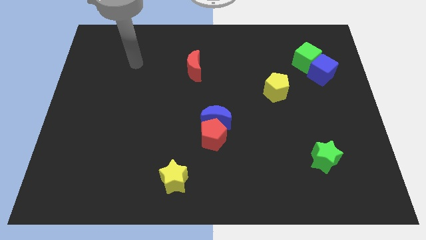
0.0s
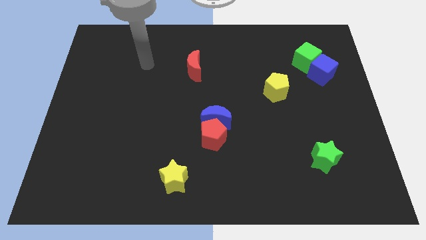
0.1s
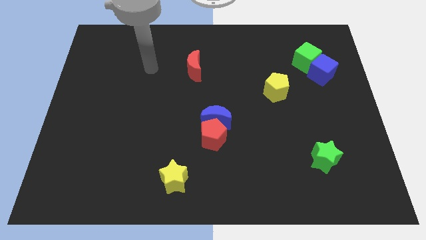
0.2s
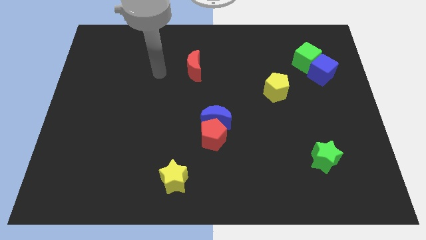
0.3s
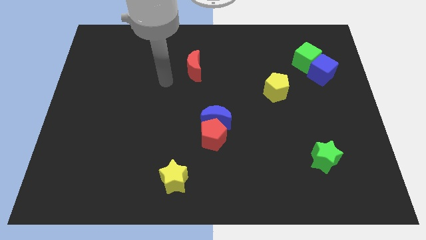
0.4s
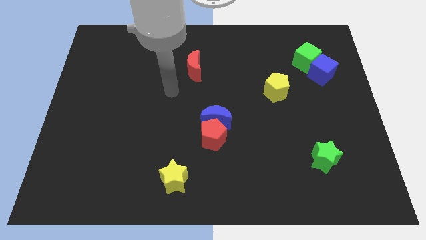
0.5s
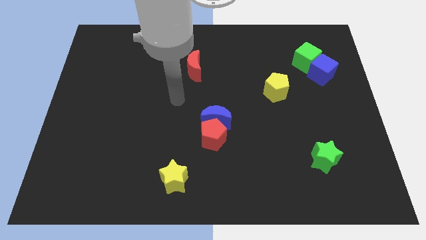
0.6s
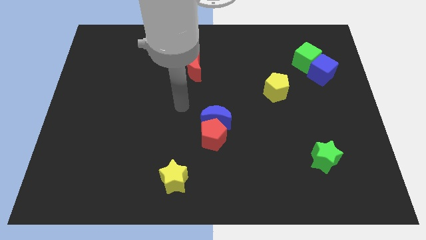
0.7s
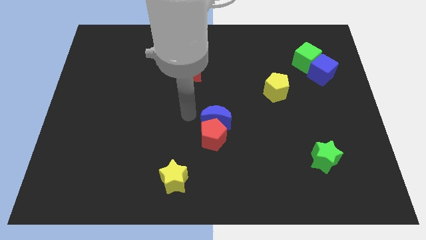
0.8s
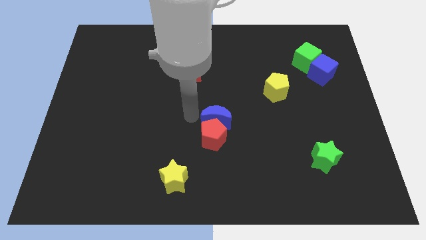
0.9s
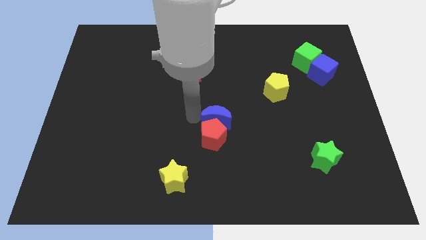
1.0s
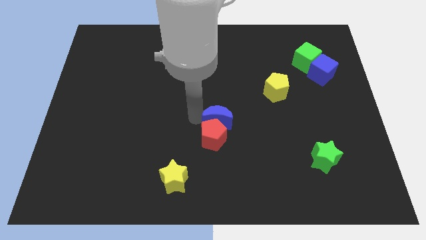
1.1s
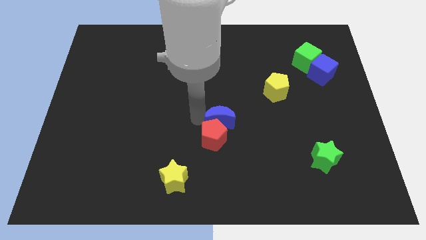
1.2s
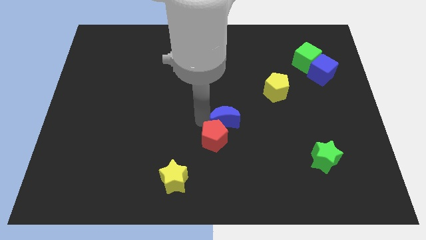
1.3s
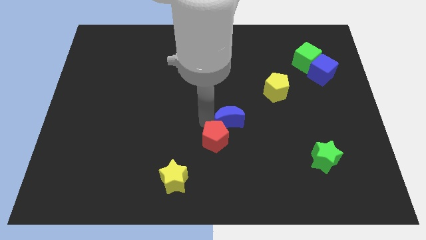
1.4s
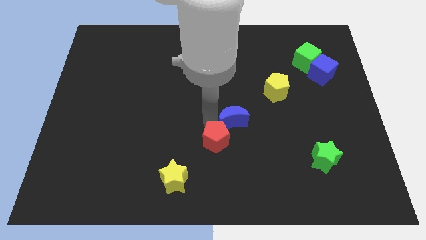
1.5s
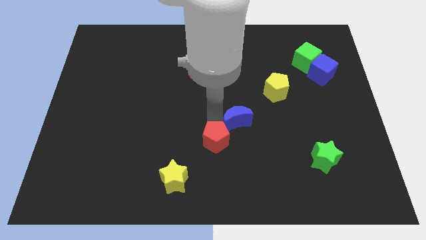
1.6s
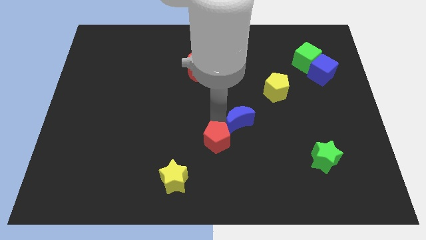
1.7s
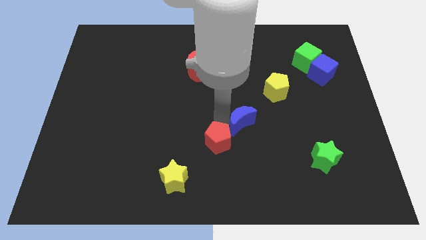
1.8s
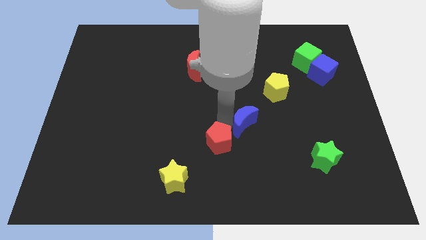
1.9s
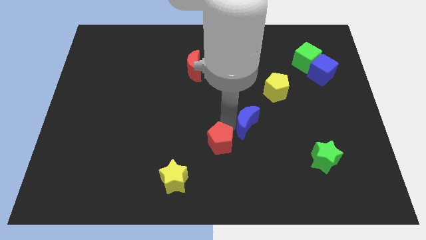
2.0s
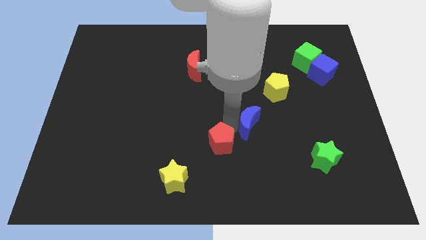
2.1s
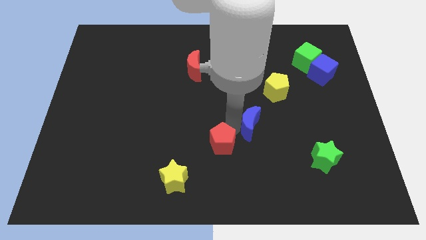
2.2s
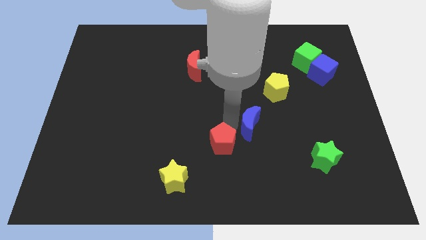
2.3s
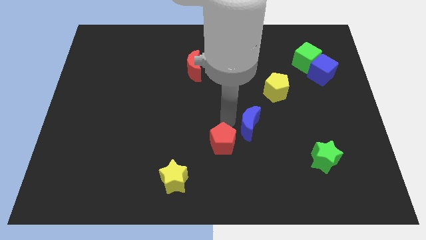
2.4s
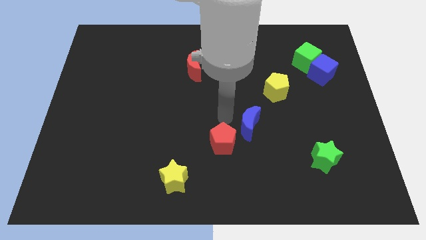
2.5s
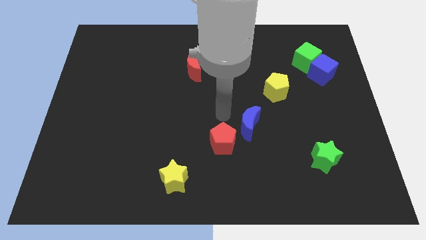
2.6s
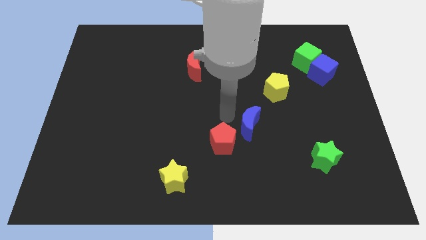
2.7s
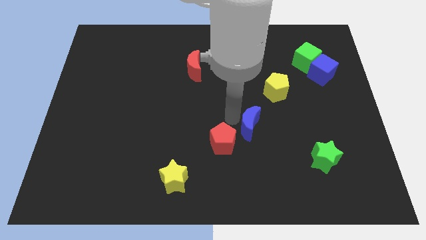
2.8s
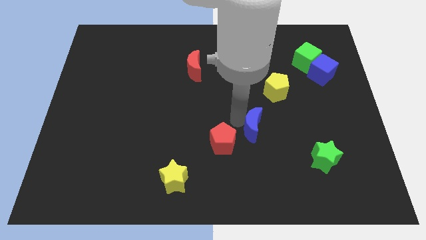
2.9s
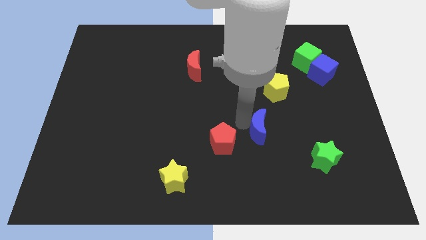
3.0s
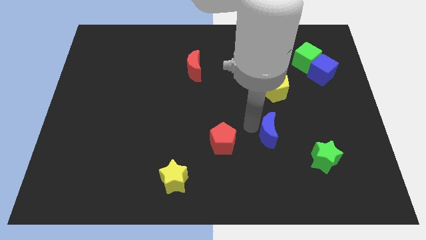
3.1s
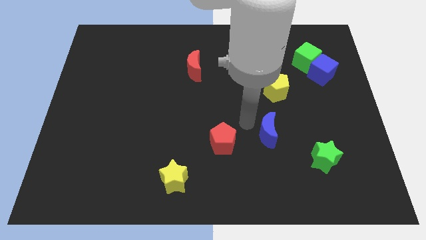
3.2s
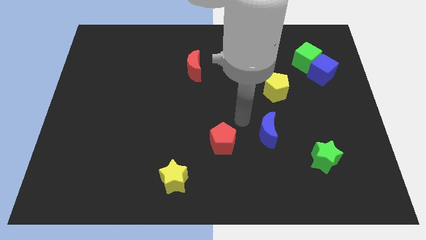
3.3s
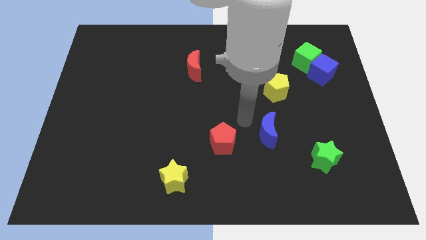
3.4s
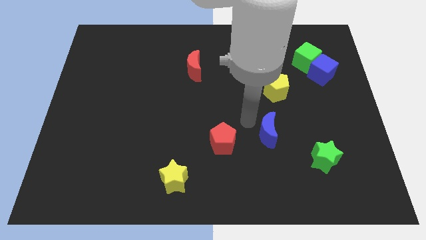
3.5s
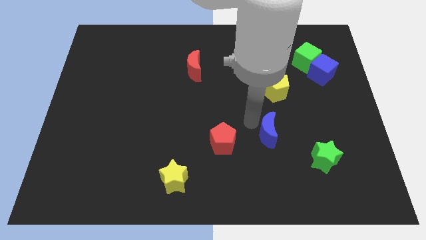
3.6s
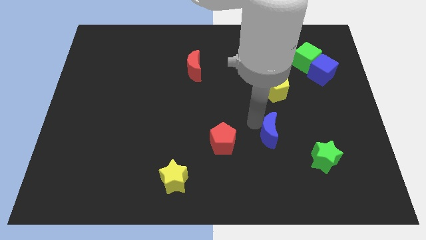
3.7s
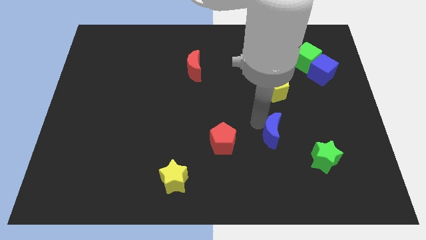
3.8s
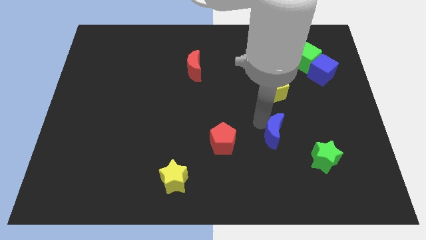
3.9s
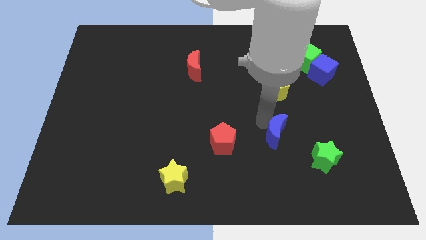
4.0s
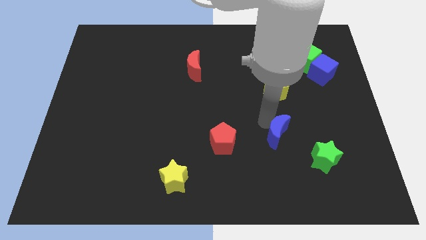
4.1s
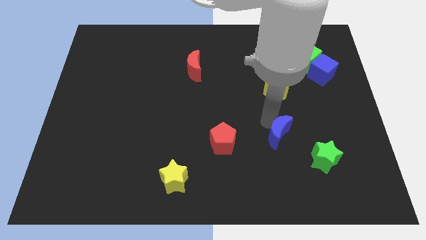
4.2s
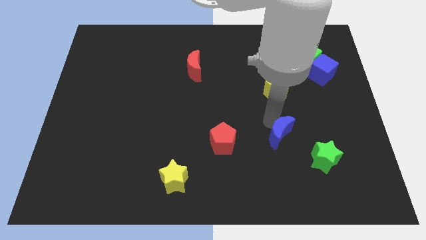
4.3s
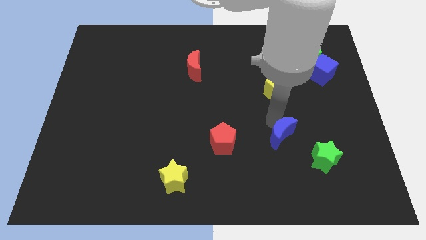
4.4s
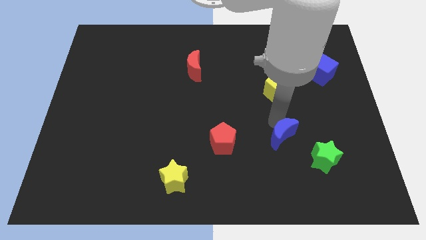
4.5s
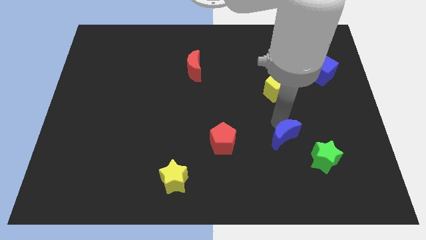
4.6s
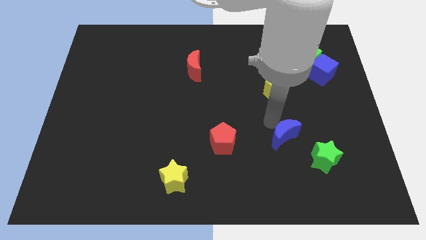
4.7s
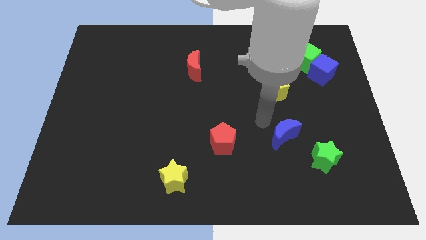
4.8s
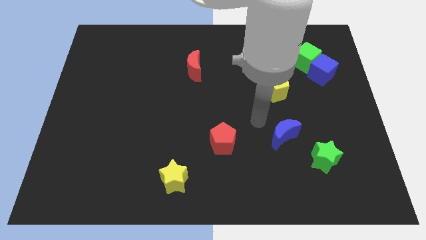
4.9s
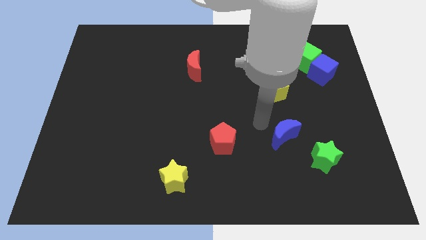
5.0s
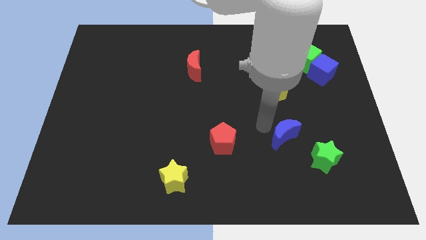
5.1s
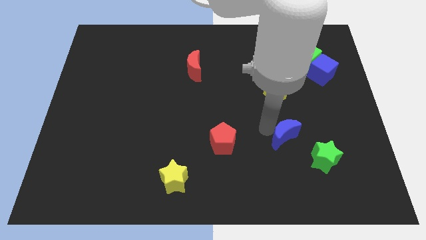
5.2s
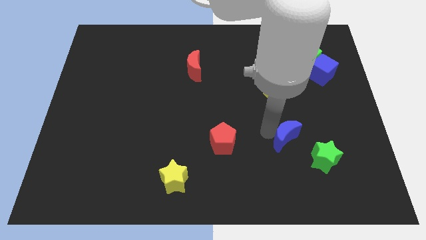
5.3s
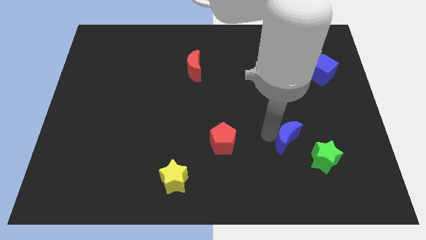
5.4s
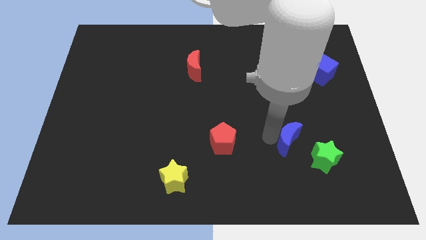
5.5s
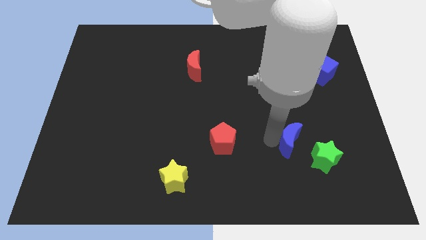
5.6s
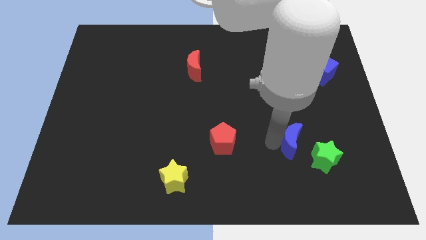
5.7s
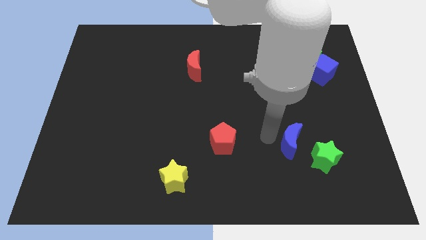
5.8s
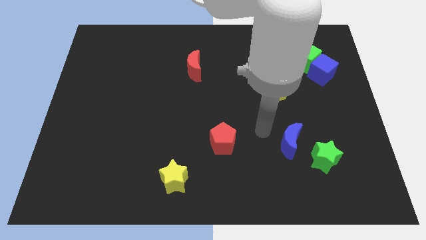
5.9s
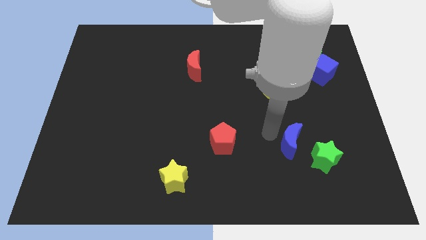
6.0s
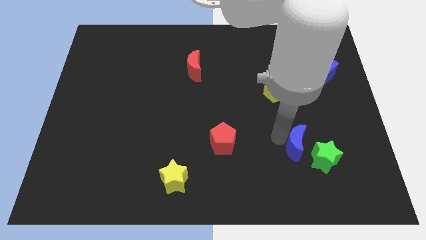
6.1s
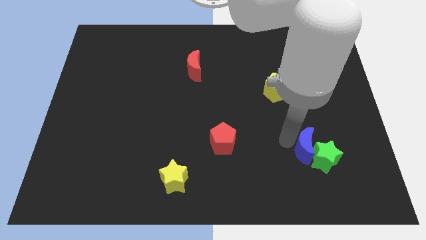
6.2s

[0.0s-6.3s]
put the blue moon towards the green star
